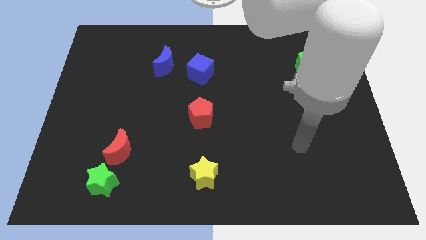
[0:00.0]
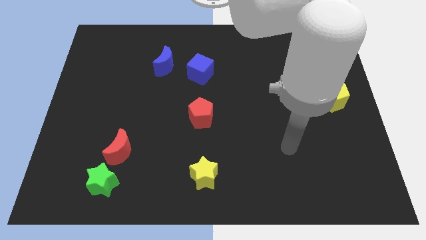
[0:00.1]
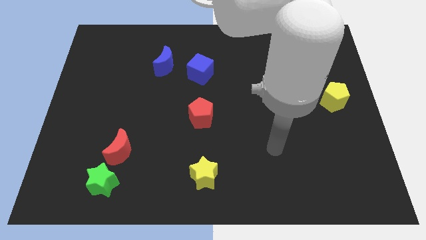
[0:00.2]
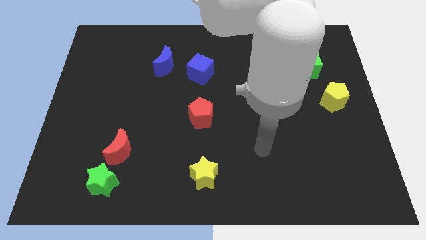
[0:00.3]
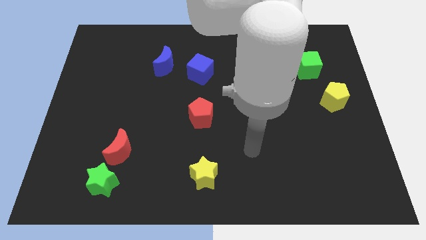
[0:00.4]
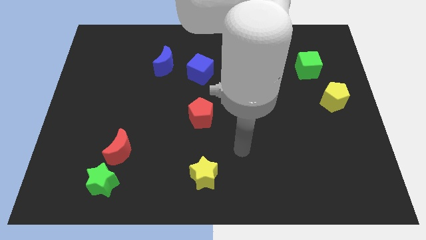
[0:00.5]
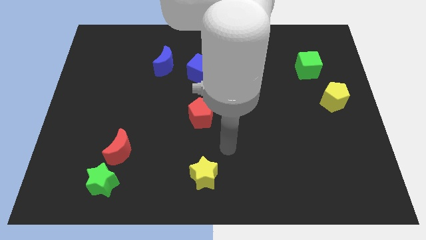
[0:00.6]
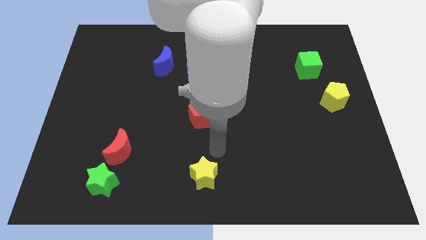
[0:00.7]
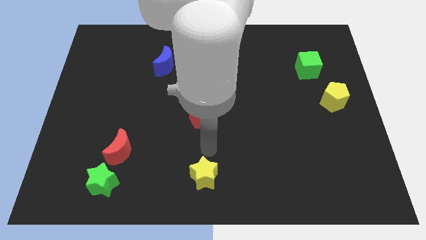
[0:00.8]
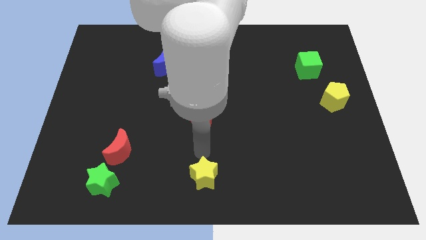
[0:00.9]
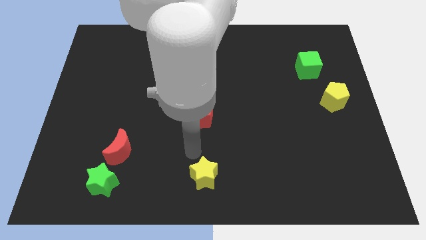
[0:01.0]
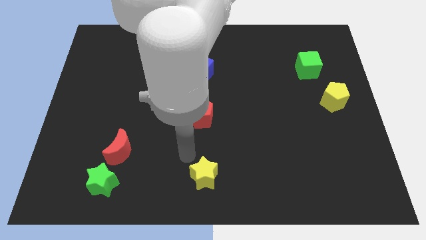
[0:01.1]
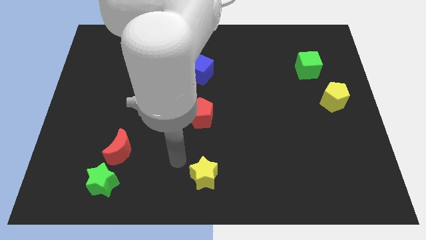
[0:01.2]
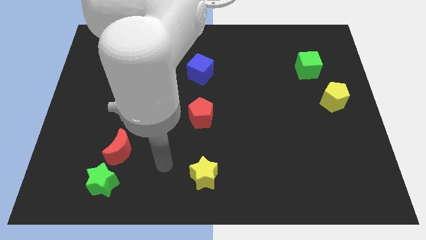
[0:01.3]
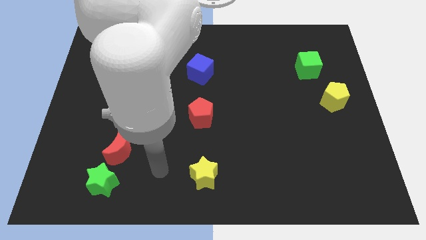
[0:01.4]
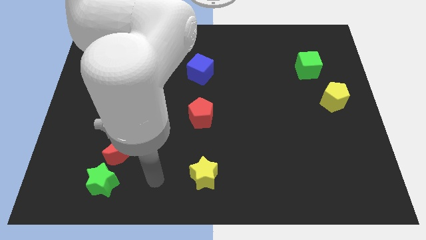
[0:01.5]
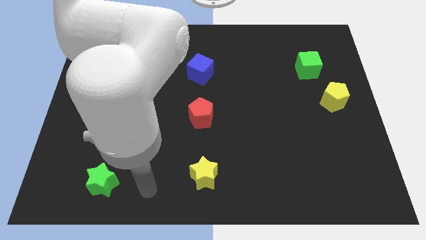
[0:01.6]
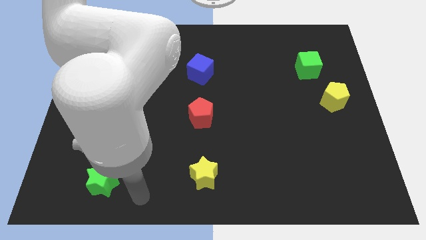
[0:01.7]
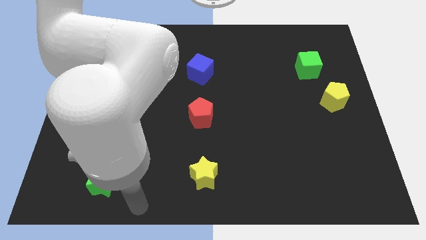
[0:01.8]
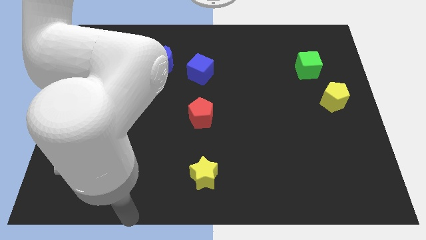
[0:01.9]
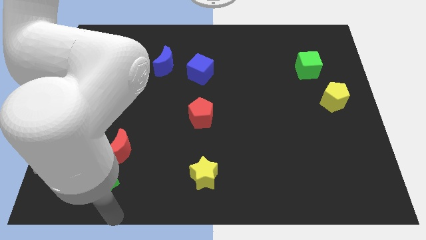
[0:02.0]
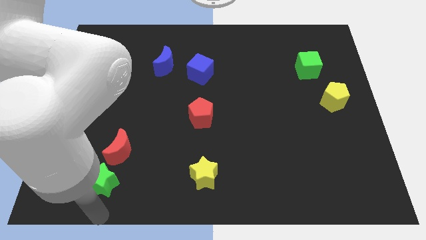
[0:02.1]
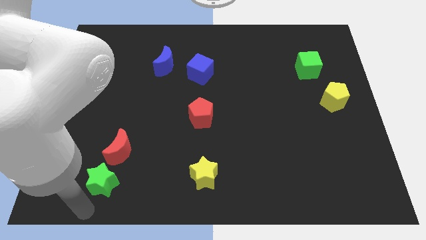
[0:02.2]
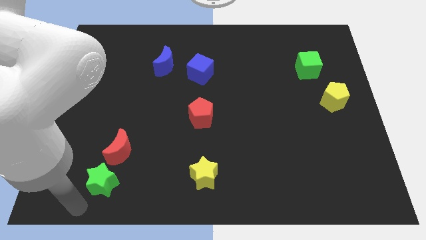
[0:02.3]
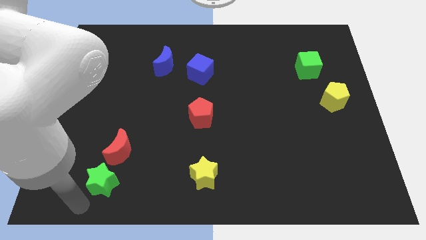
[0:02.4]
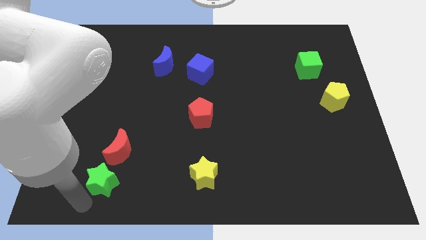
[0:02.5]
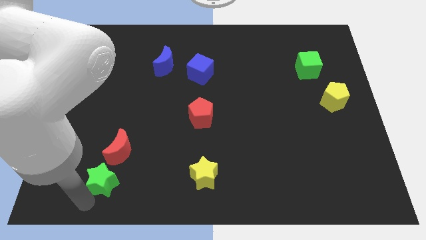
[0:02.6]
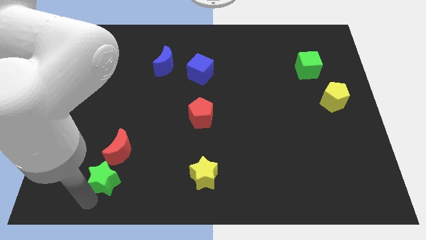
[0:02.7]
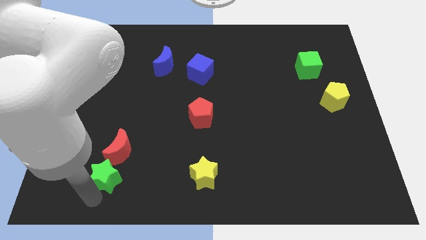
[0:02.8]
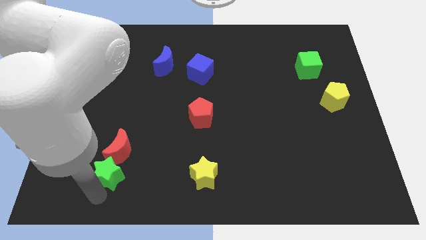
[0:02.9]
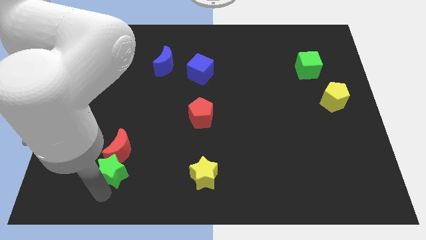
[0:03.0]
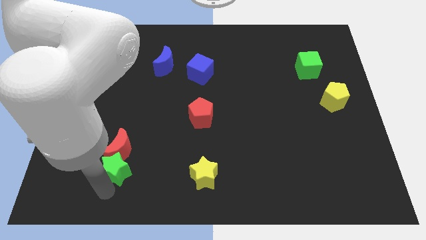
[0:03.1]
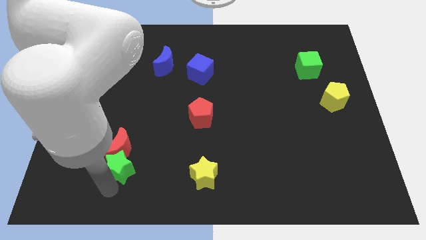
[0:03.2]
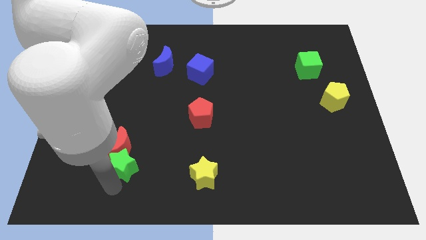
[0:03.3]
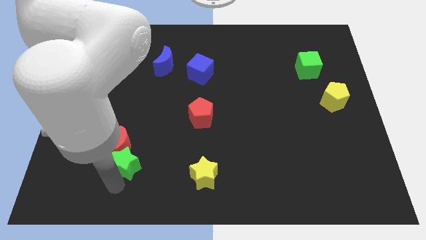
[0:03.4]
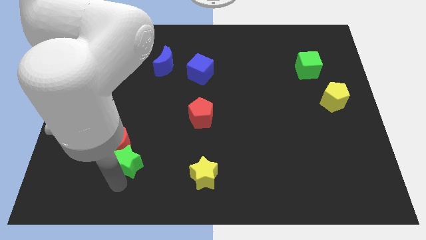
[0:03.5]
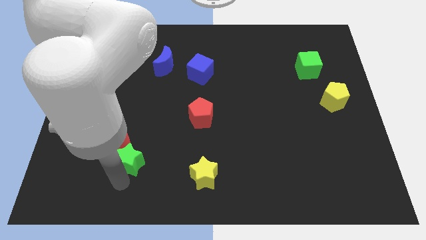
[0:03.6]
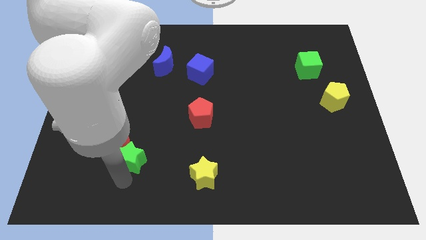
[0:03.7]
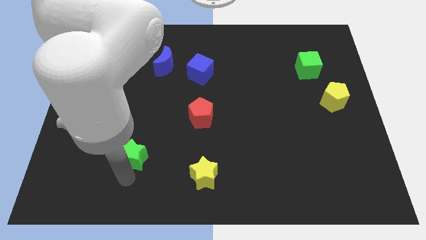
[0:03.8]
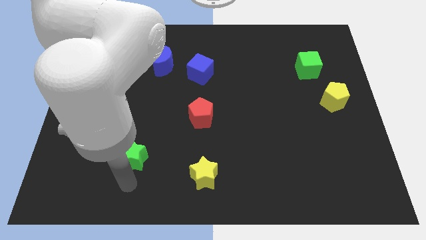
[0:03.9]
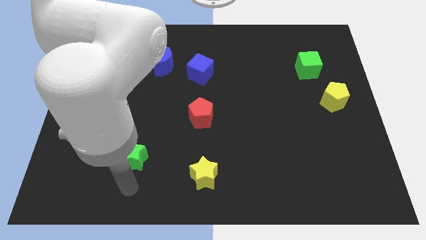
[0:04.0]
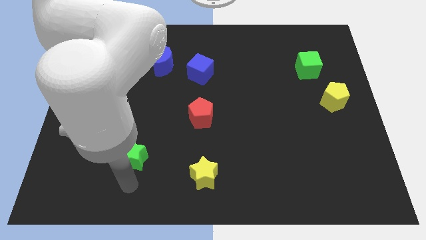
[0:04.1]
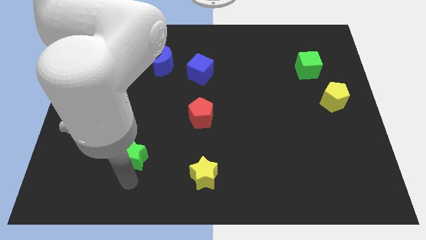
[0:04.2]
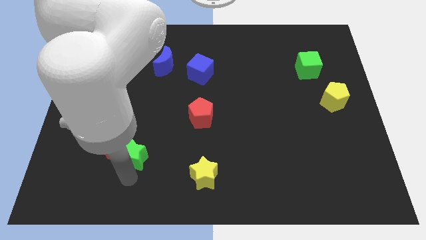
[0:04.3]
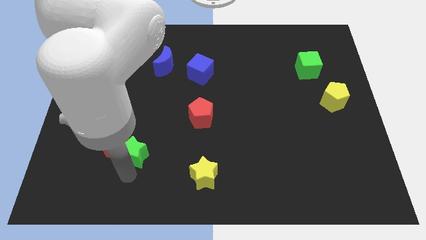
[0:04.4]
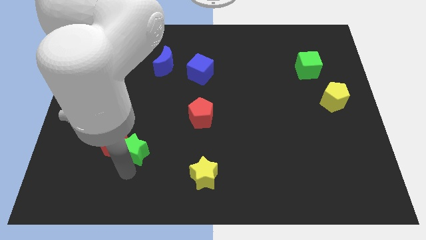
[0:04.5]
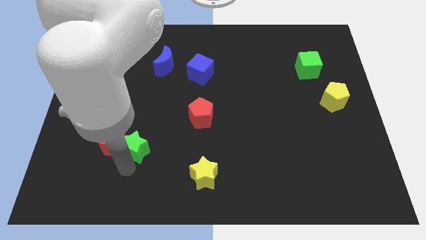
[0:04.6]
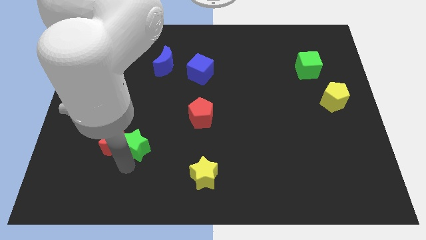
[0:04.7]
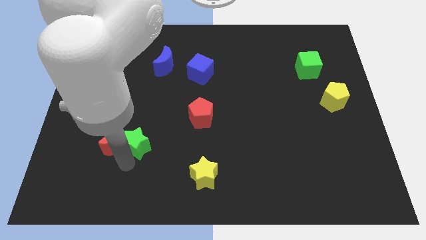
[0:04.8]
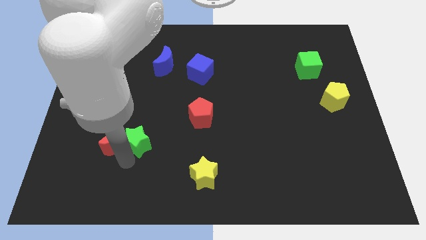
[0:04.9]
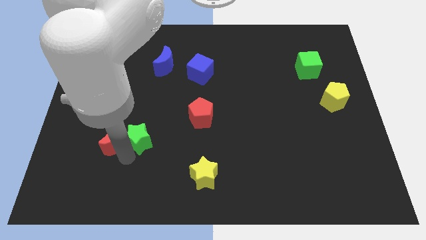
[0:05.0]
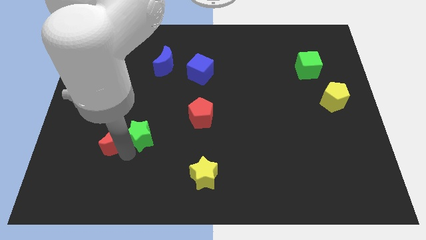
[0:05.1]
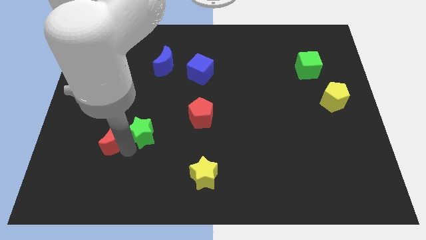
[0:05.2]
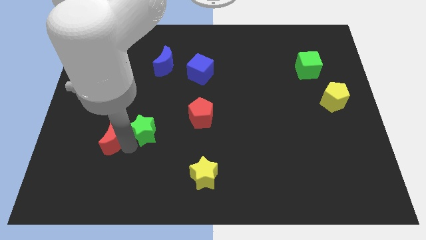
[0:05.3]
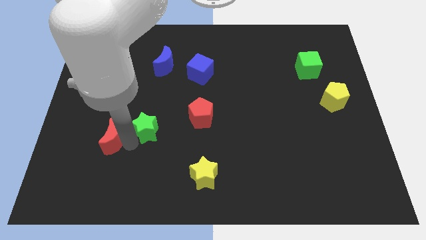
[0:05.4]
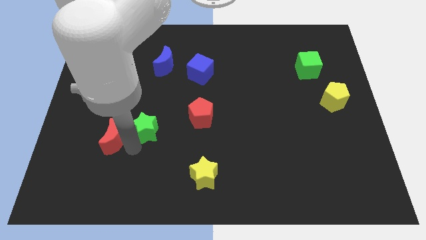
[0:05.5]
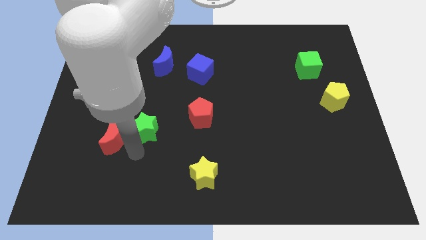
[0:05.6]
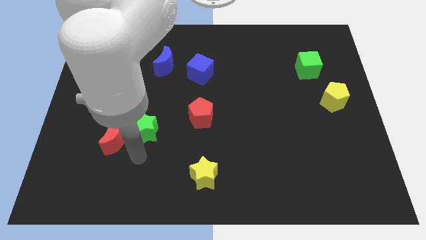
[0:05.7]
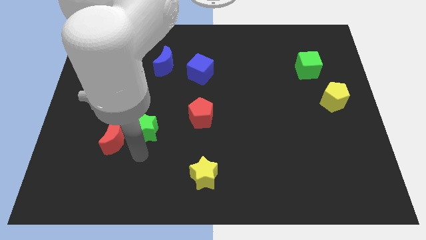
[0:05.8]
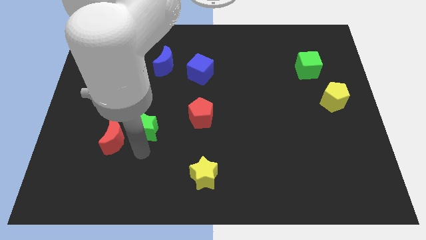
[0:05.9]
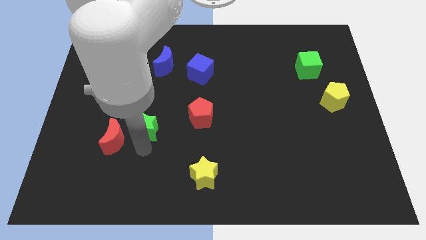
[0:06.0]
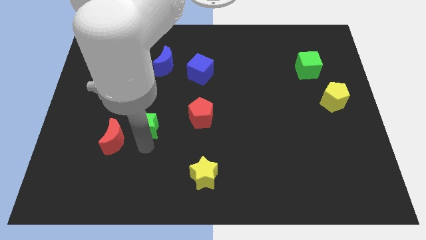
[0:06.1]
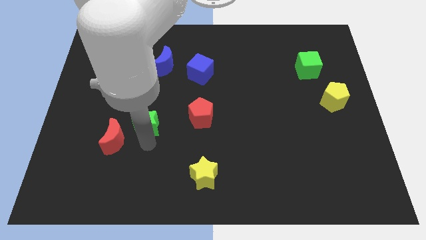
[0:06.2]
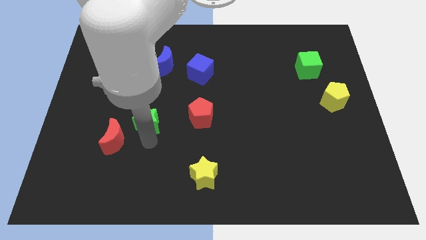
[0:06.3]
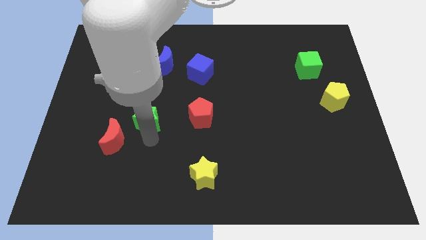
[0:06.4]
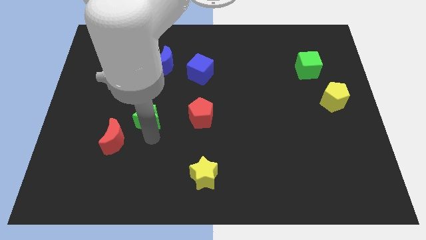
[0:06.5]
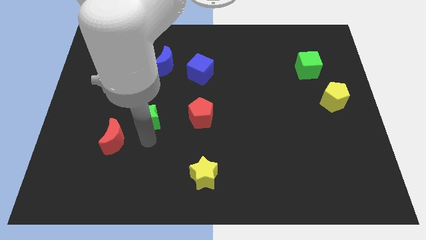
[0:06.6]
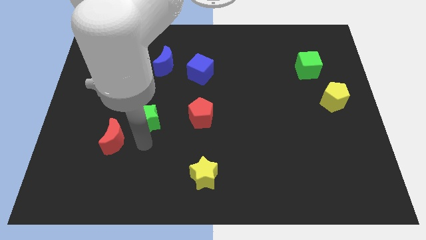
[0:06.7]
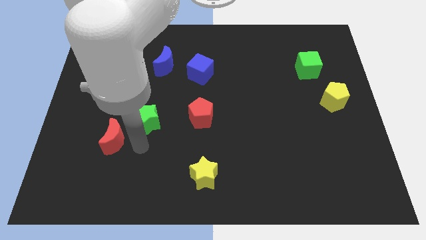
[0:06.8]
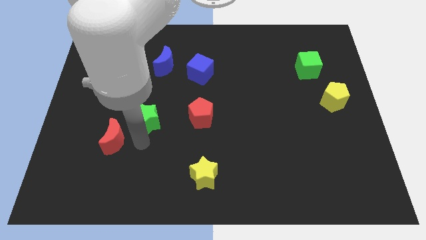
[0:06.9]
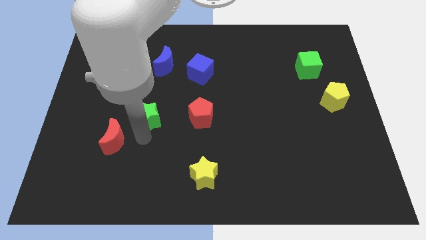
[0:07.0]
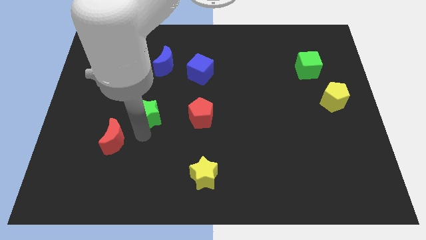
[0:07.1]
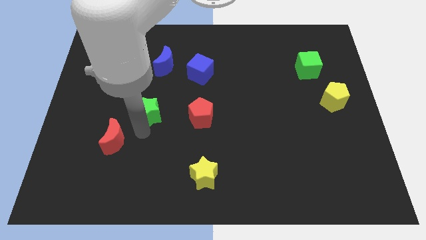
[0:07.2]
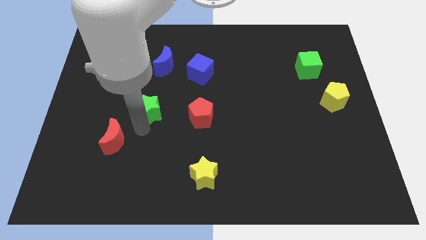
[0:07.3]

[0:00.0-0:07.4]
put the green star to the bottom of the blue moon

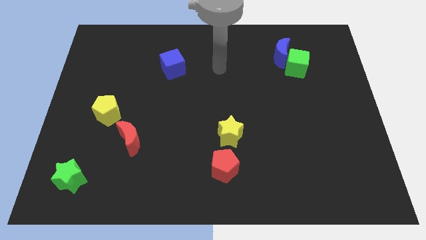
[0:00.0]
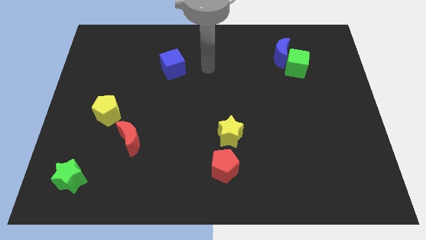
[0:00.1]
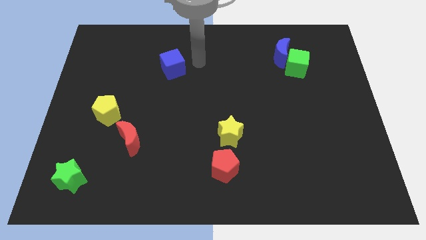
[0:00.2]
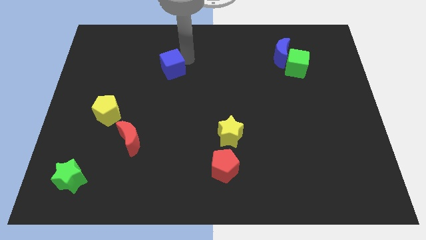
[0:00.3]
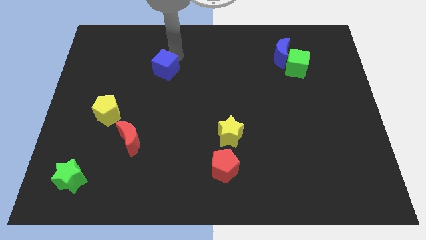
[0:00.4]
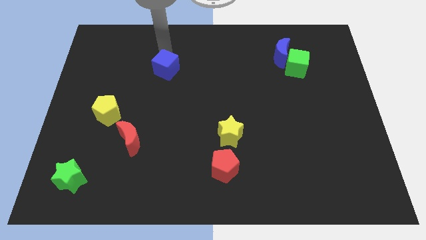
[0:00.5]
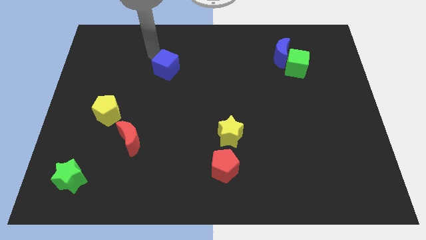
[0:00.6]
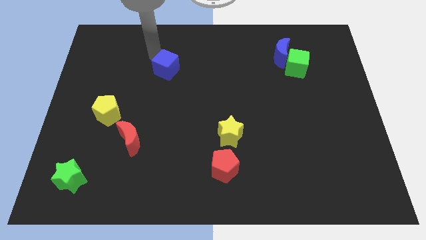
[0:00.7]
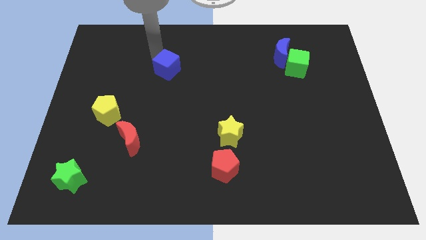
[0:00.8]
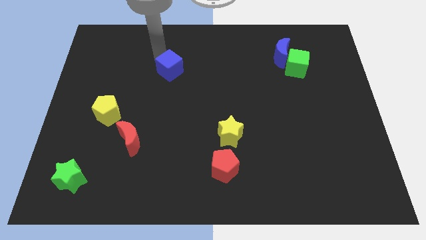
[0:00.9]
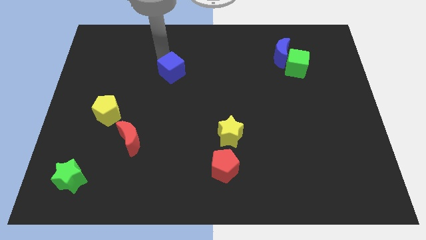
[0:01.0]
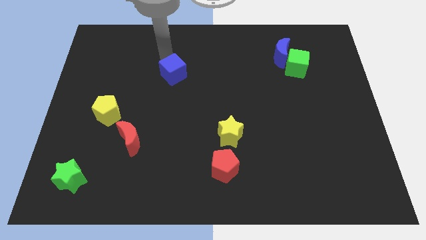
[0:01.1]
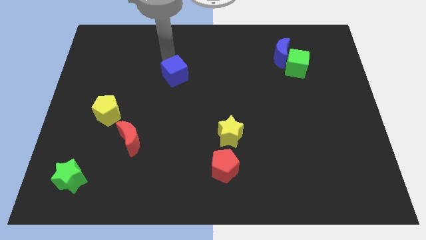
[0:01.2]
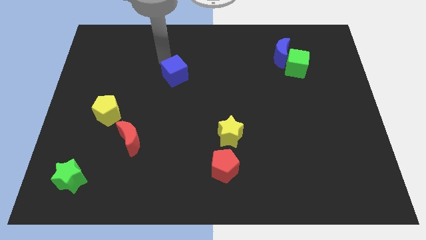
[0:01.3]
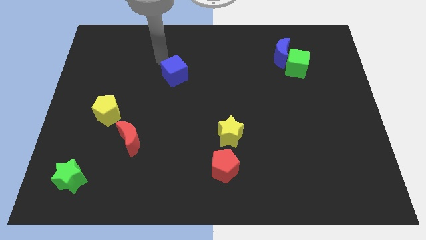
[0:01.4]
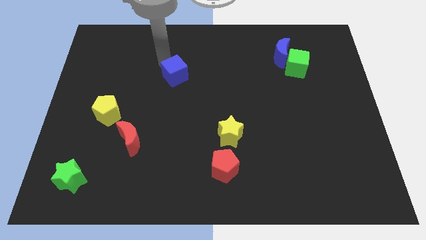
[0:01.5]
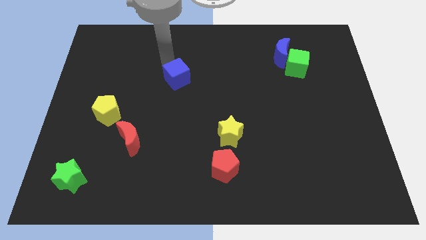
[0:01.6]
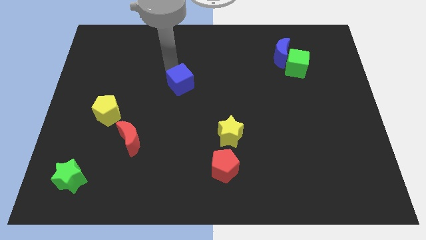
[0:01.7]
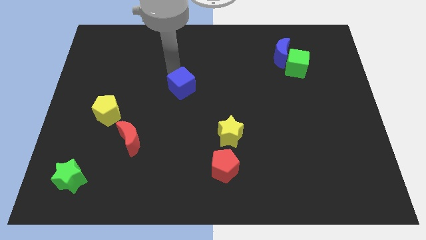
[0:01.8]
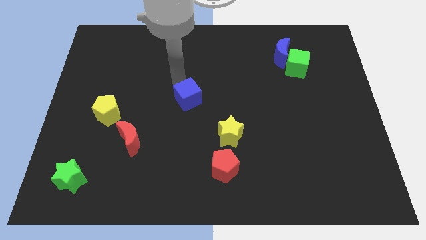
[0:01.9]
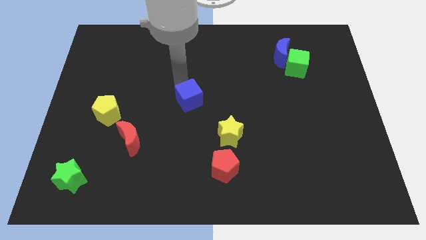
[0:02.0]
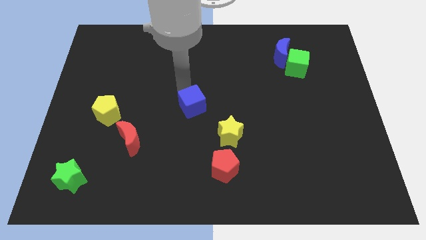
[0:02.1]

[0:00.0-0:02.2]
put the blue cube diagonally up and to the left of the yellow star
